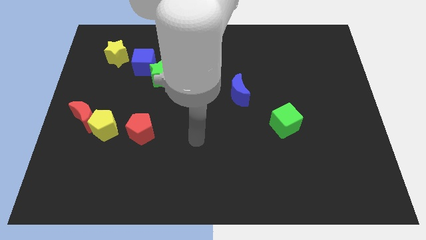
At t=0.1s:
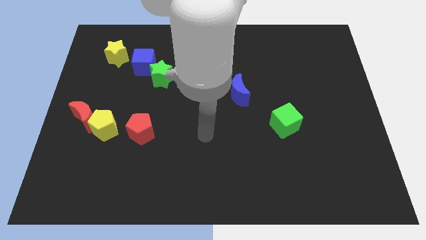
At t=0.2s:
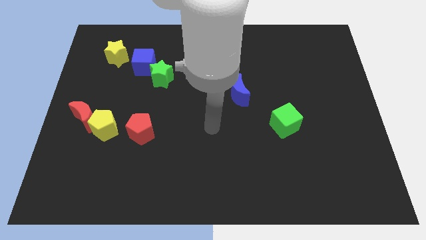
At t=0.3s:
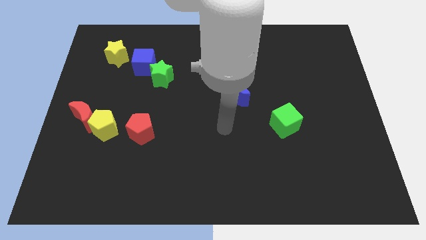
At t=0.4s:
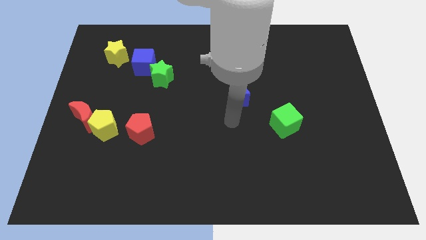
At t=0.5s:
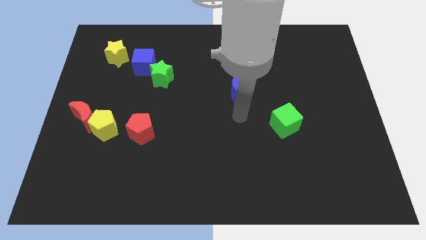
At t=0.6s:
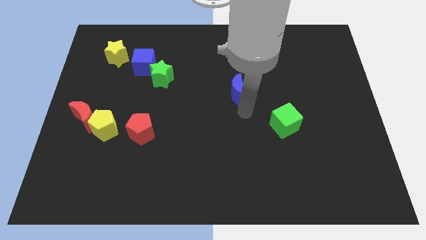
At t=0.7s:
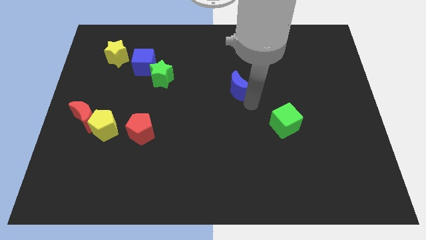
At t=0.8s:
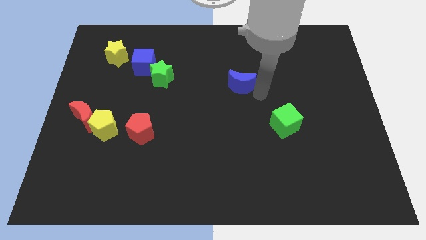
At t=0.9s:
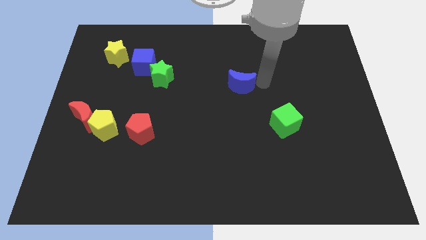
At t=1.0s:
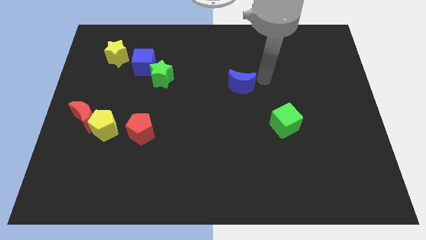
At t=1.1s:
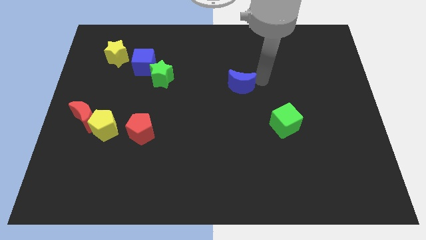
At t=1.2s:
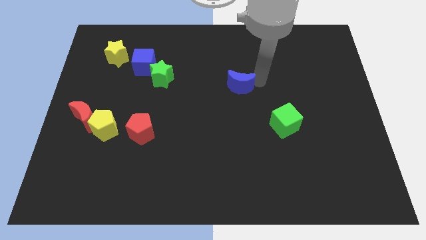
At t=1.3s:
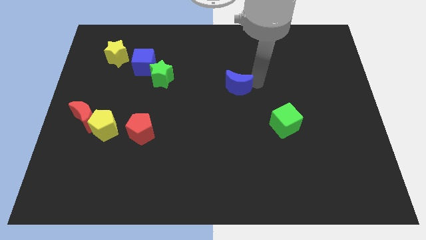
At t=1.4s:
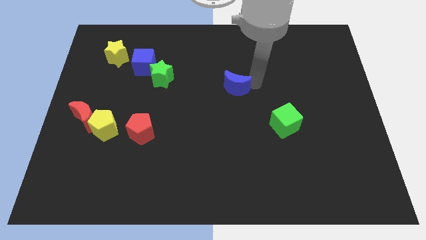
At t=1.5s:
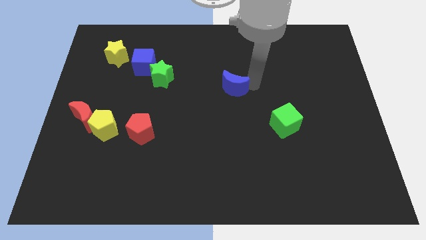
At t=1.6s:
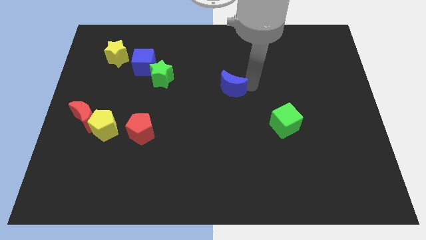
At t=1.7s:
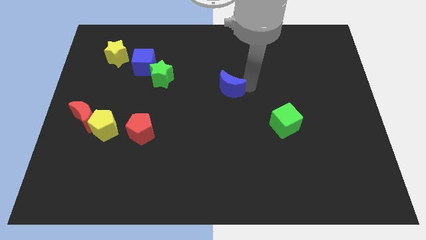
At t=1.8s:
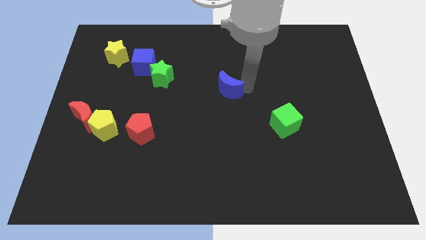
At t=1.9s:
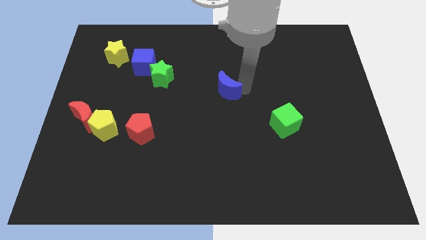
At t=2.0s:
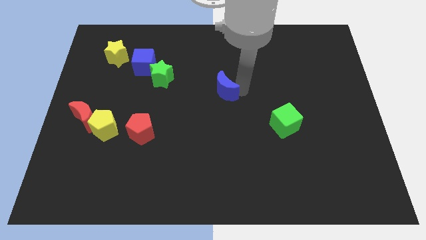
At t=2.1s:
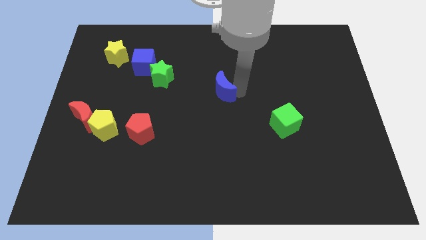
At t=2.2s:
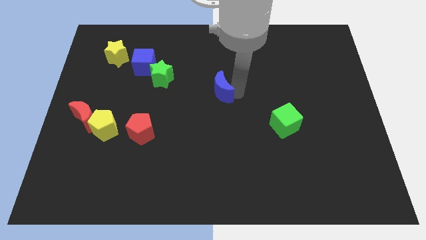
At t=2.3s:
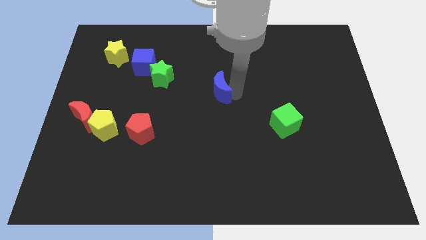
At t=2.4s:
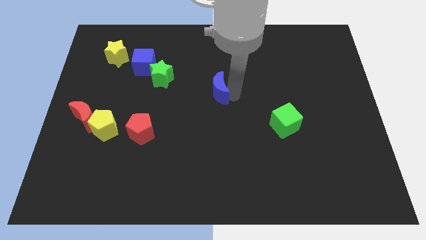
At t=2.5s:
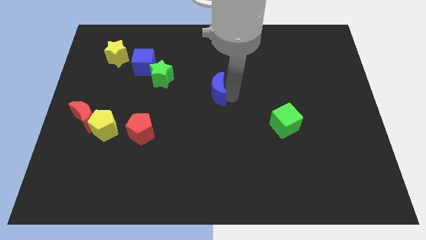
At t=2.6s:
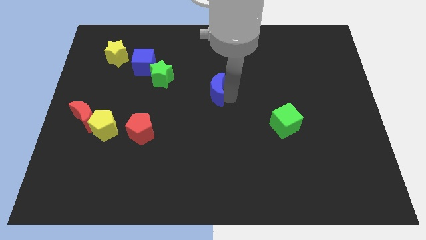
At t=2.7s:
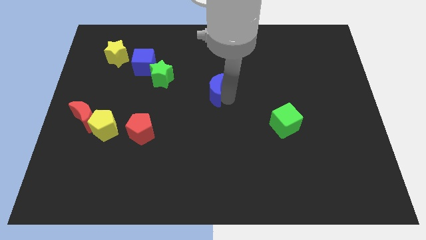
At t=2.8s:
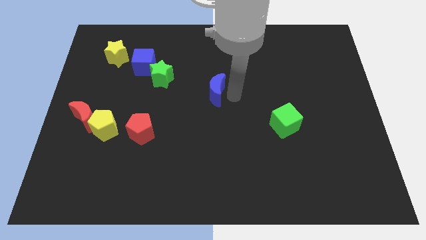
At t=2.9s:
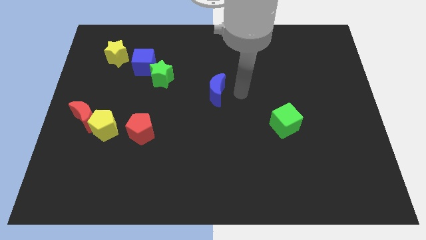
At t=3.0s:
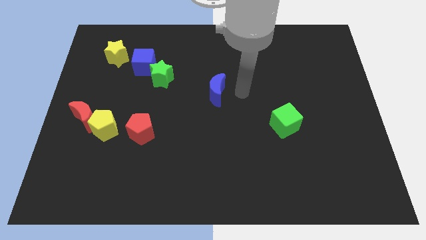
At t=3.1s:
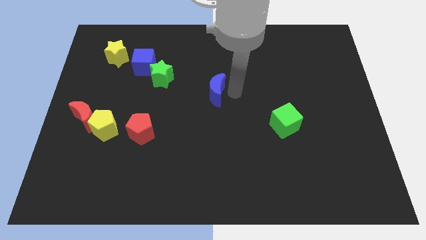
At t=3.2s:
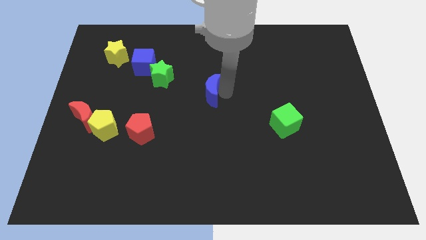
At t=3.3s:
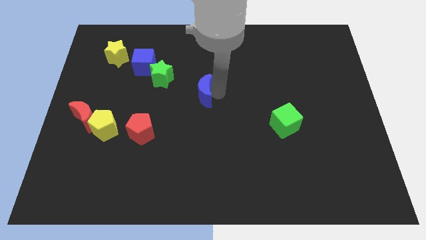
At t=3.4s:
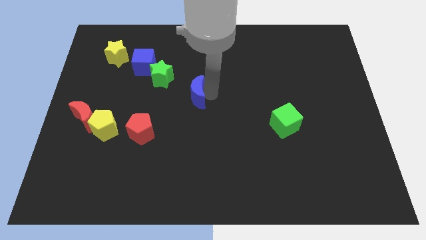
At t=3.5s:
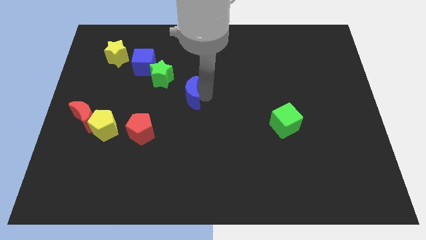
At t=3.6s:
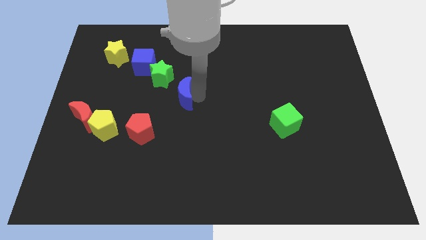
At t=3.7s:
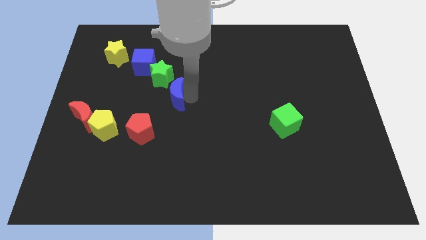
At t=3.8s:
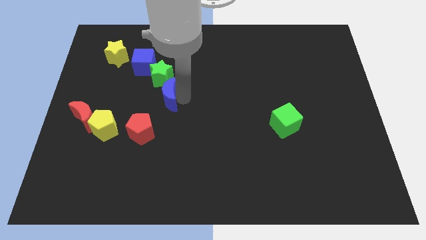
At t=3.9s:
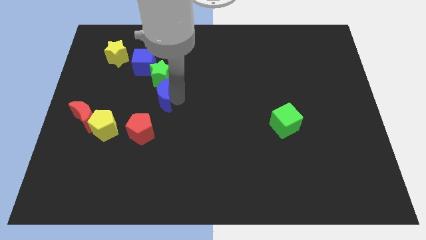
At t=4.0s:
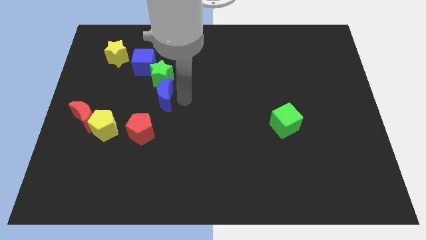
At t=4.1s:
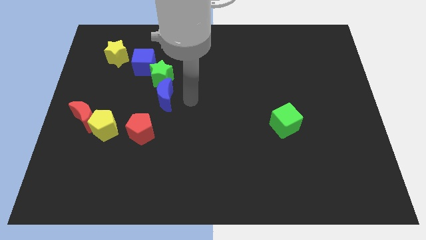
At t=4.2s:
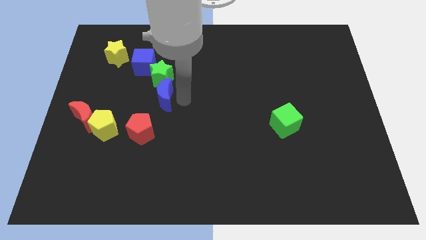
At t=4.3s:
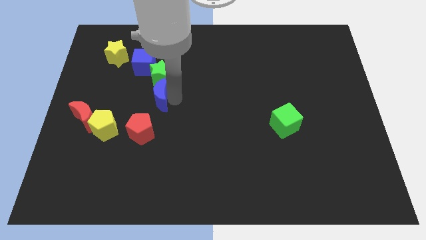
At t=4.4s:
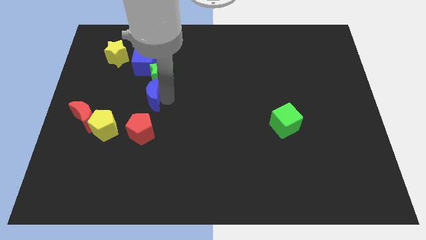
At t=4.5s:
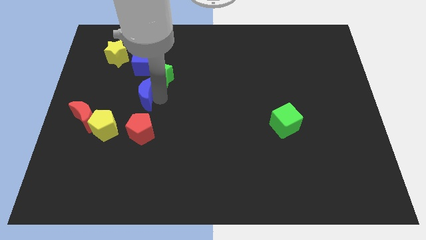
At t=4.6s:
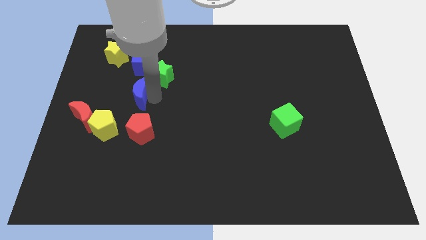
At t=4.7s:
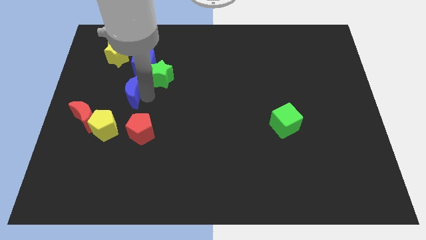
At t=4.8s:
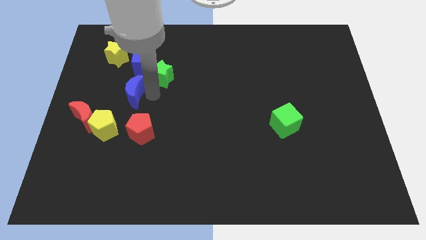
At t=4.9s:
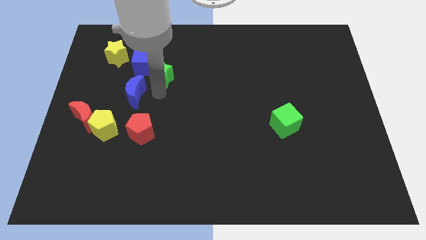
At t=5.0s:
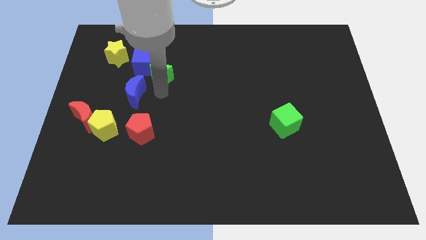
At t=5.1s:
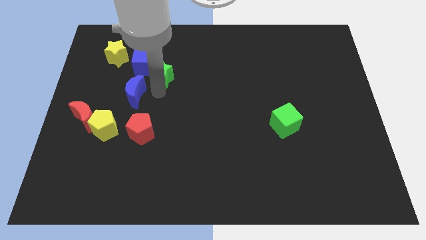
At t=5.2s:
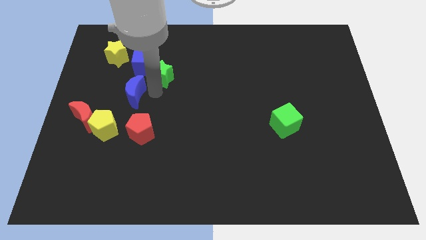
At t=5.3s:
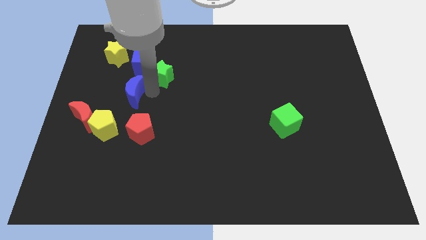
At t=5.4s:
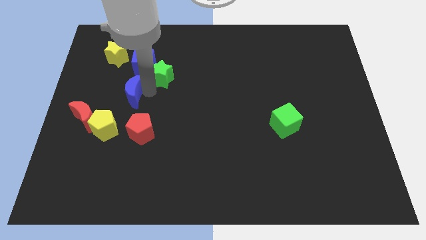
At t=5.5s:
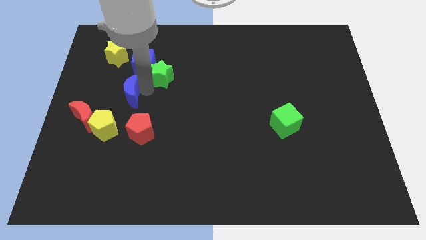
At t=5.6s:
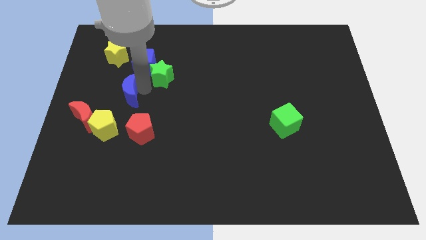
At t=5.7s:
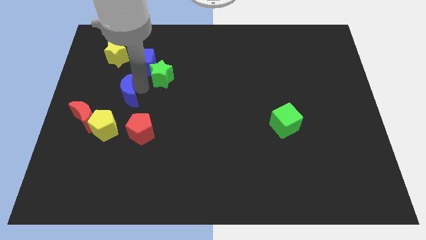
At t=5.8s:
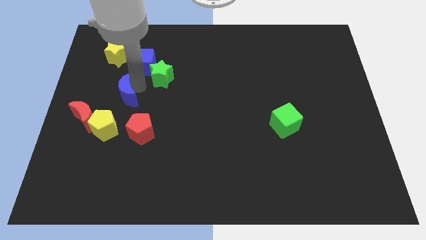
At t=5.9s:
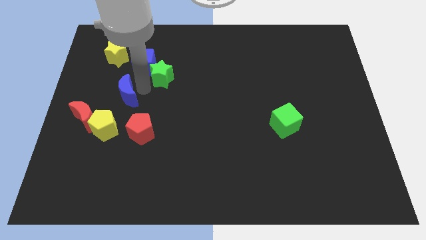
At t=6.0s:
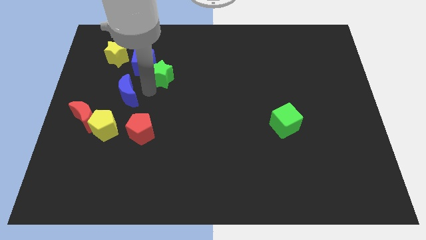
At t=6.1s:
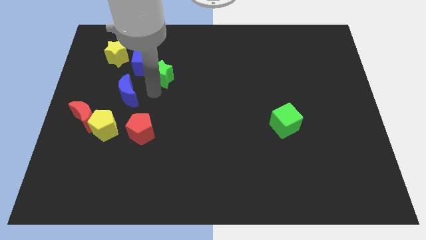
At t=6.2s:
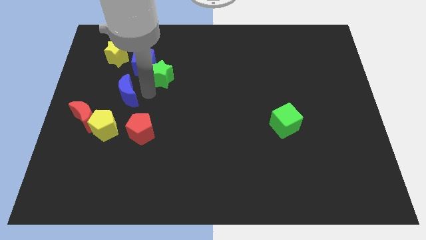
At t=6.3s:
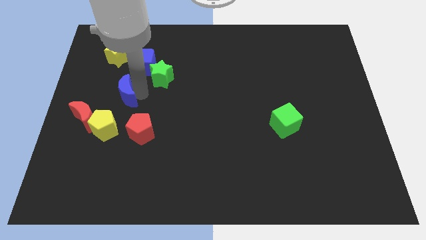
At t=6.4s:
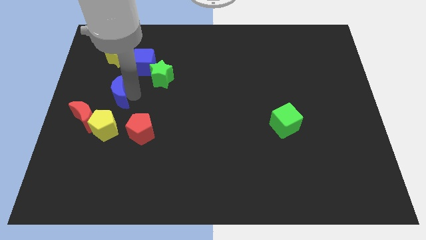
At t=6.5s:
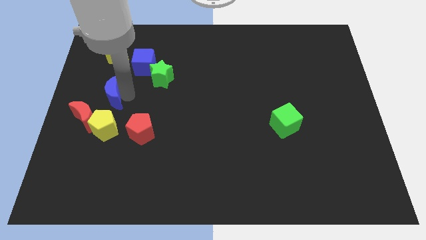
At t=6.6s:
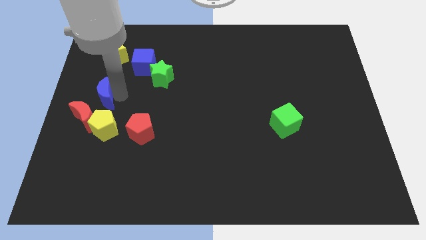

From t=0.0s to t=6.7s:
push the blue moon to the center left

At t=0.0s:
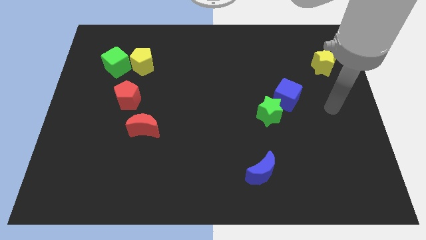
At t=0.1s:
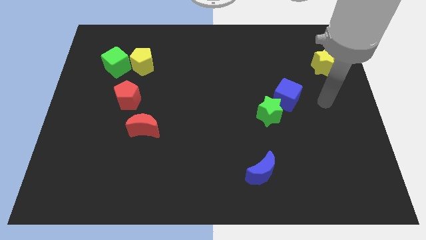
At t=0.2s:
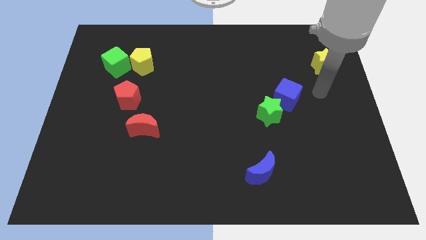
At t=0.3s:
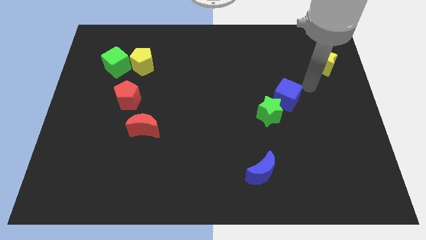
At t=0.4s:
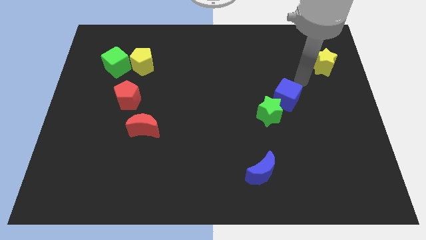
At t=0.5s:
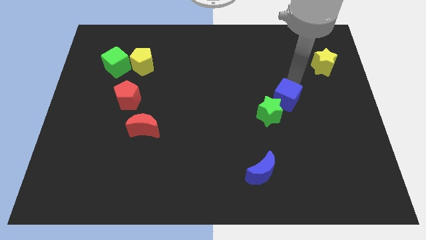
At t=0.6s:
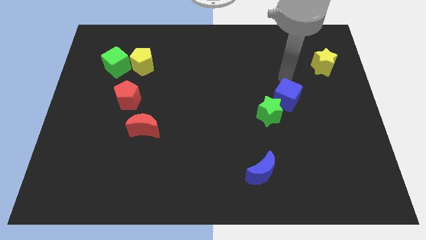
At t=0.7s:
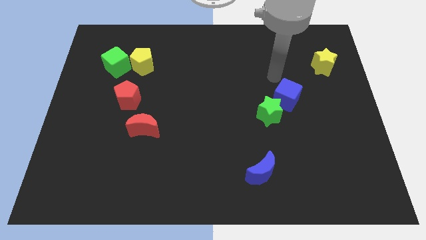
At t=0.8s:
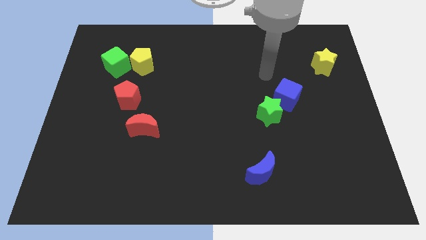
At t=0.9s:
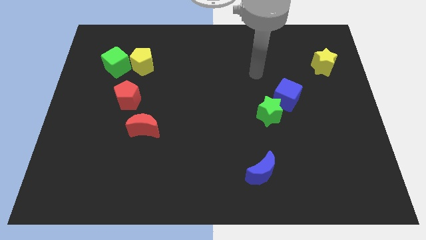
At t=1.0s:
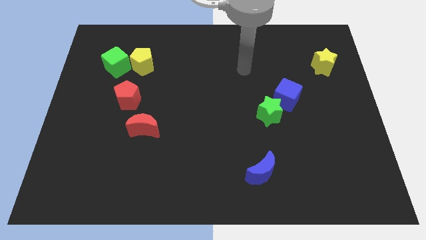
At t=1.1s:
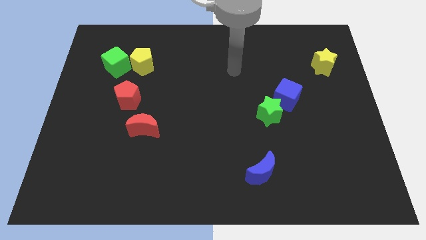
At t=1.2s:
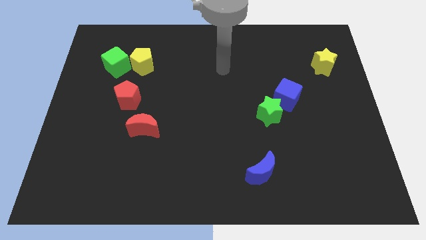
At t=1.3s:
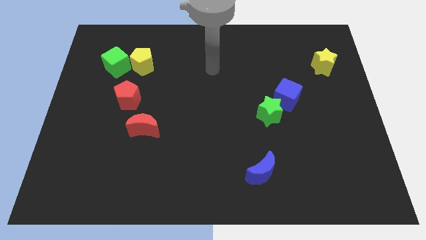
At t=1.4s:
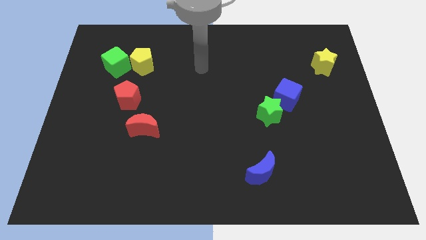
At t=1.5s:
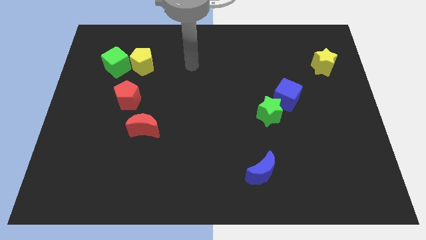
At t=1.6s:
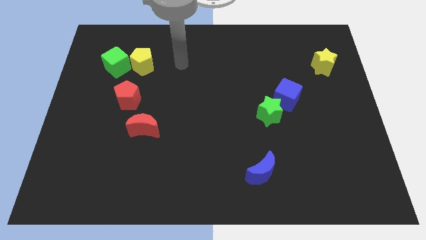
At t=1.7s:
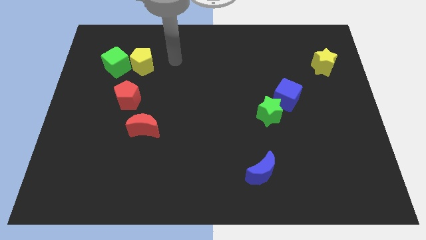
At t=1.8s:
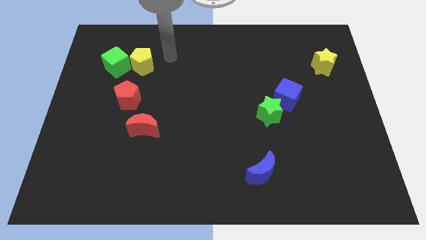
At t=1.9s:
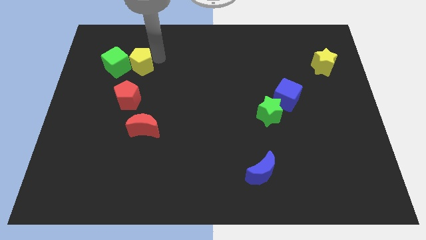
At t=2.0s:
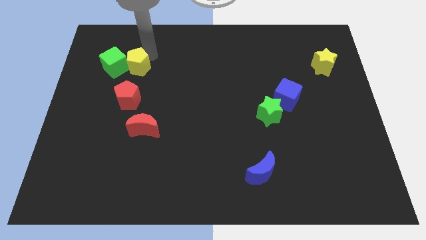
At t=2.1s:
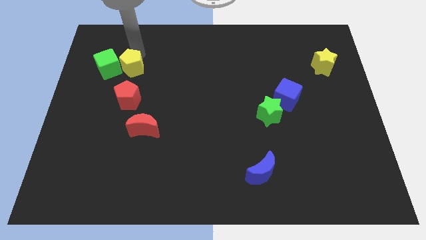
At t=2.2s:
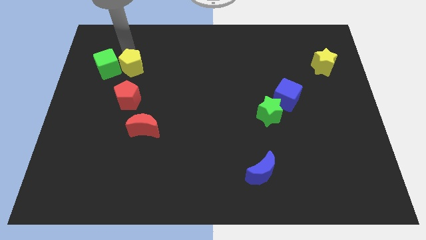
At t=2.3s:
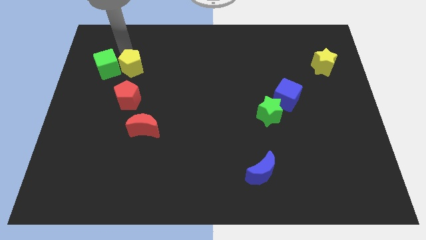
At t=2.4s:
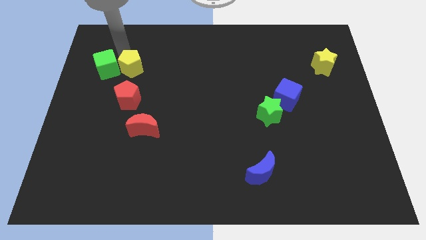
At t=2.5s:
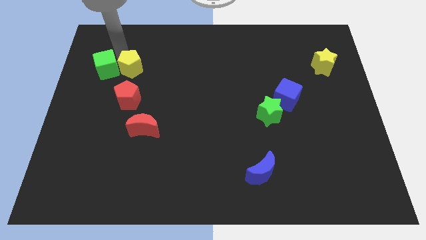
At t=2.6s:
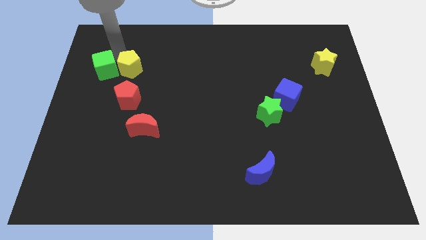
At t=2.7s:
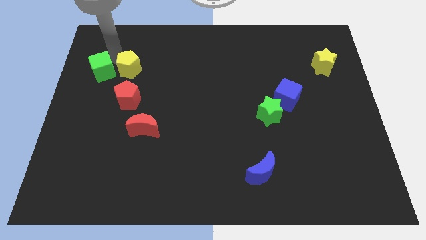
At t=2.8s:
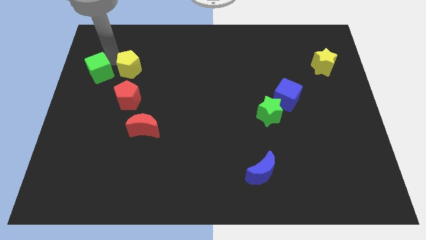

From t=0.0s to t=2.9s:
push the green cube to the left side
